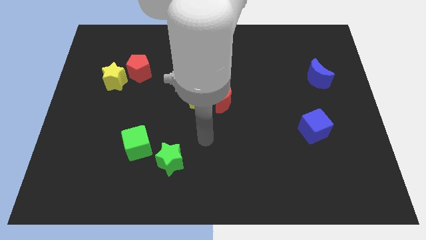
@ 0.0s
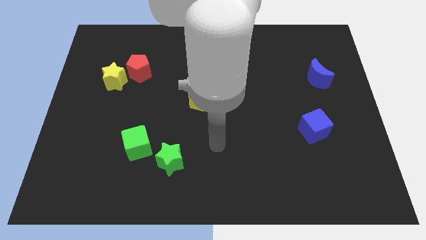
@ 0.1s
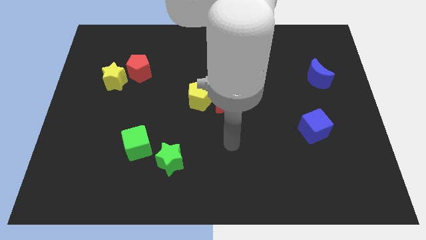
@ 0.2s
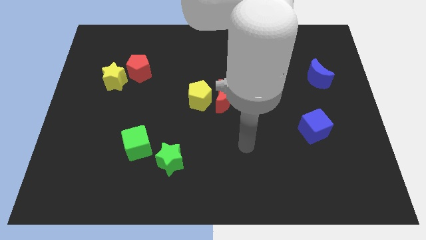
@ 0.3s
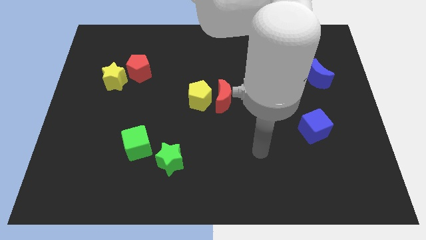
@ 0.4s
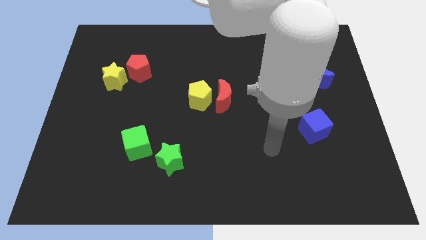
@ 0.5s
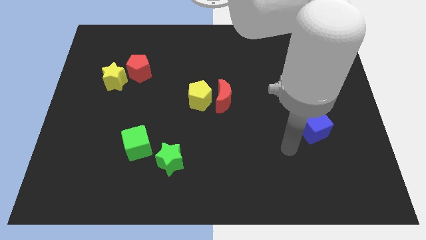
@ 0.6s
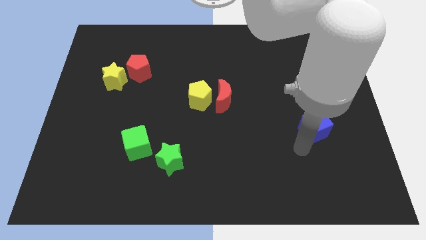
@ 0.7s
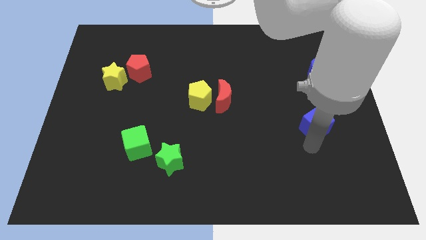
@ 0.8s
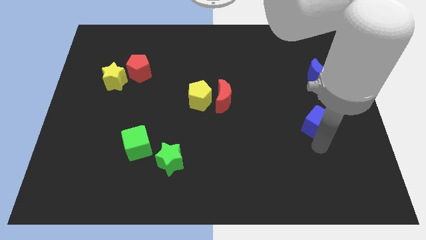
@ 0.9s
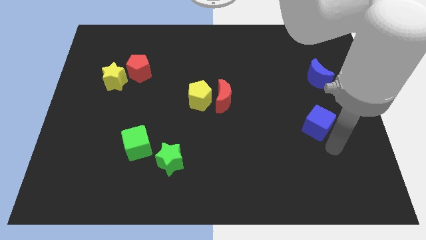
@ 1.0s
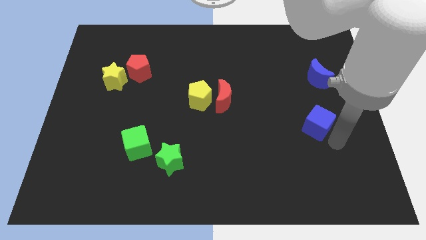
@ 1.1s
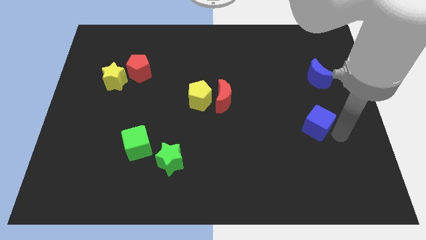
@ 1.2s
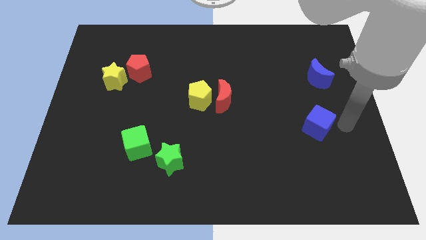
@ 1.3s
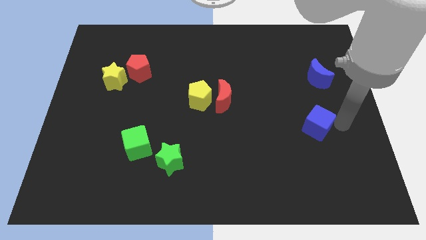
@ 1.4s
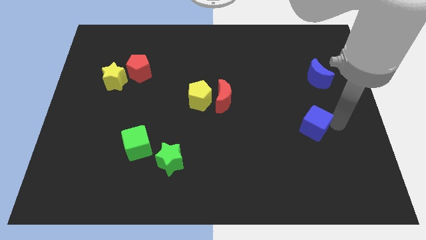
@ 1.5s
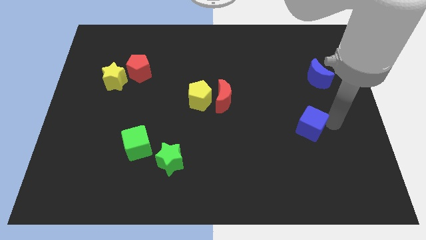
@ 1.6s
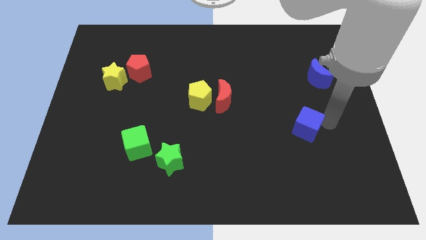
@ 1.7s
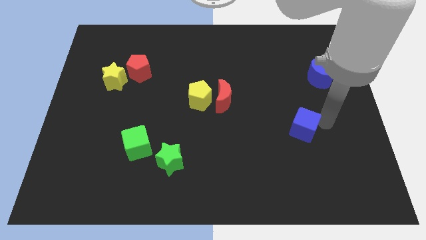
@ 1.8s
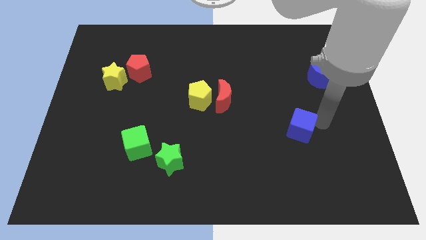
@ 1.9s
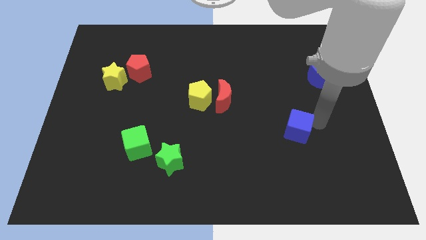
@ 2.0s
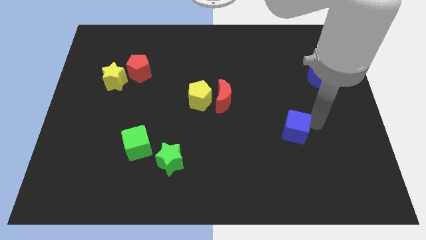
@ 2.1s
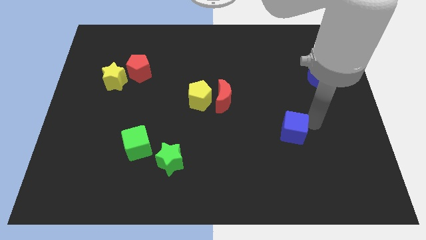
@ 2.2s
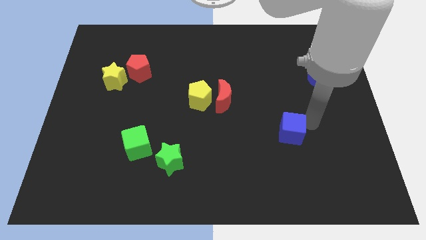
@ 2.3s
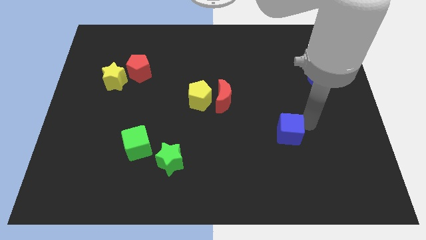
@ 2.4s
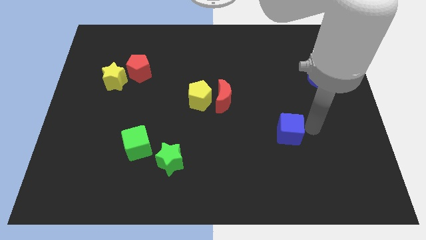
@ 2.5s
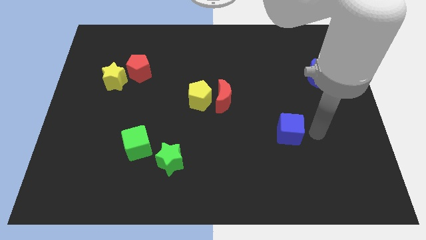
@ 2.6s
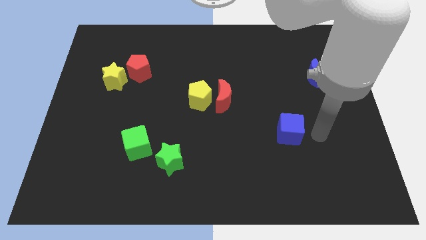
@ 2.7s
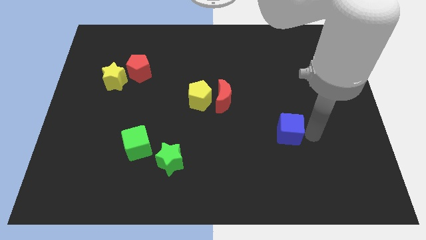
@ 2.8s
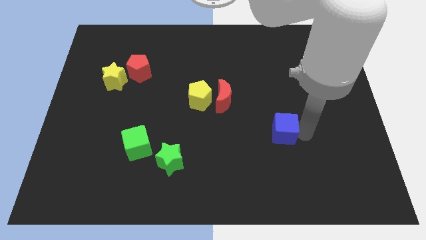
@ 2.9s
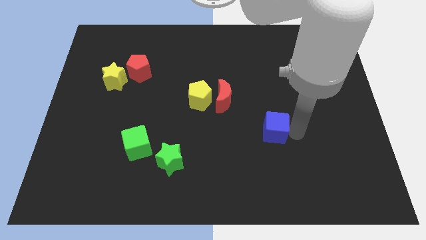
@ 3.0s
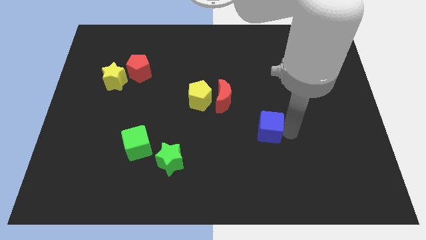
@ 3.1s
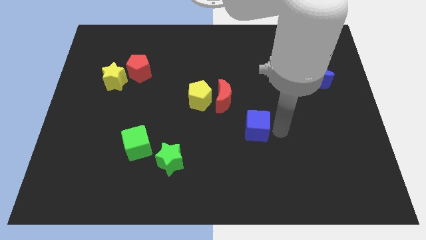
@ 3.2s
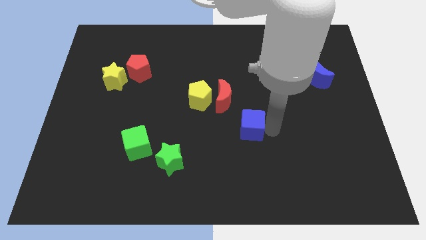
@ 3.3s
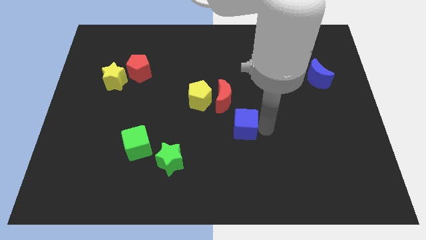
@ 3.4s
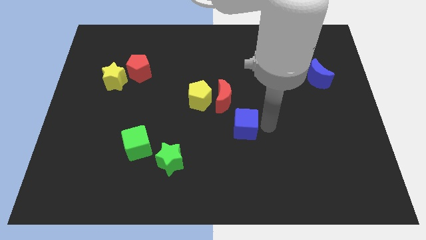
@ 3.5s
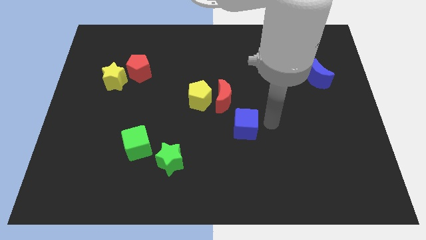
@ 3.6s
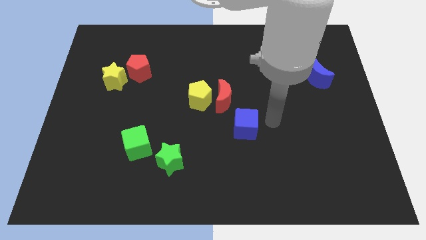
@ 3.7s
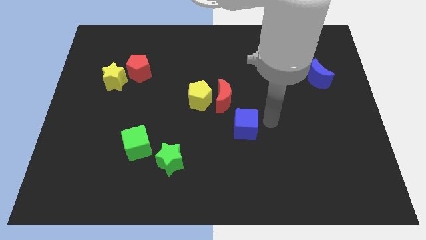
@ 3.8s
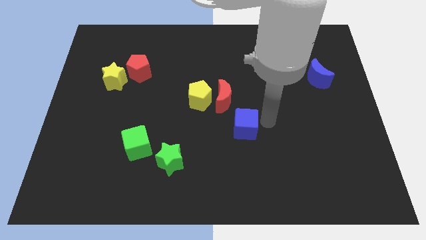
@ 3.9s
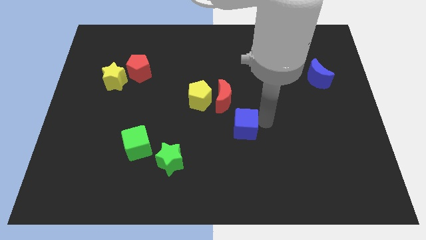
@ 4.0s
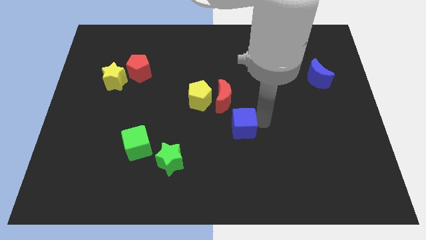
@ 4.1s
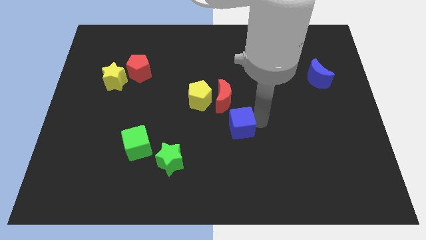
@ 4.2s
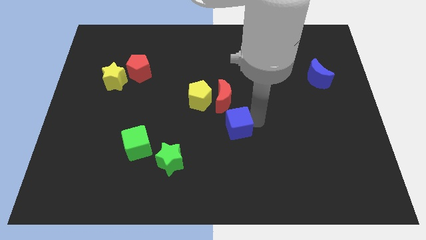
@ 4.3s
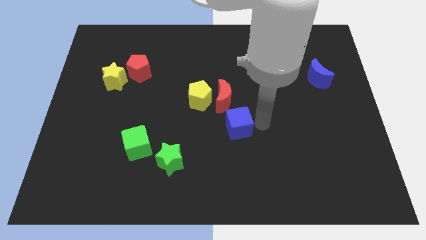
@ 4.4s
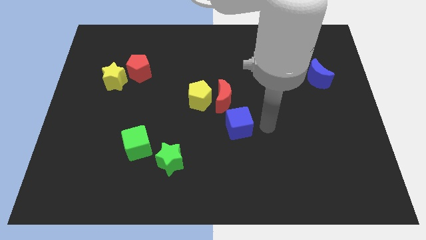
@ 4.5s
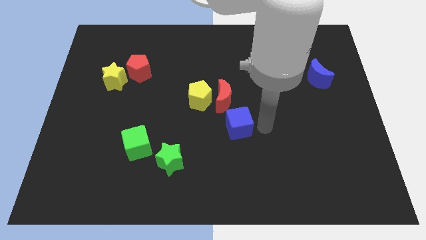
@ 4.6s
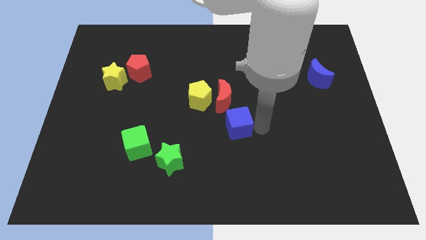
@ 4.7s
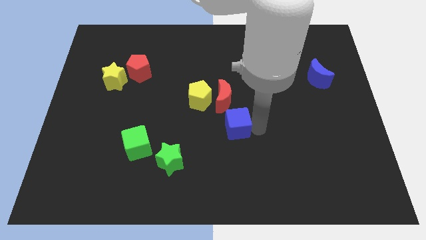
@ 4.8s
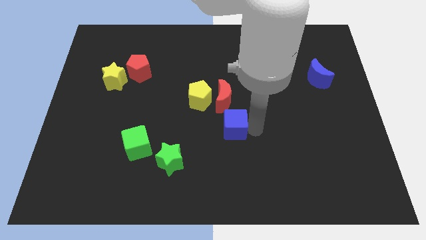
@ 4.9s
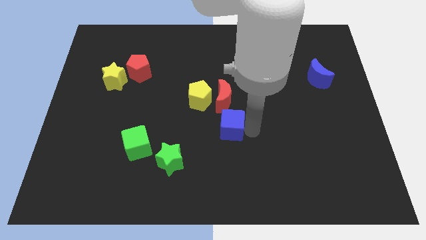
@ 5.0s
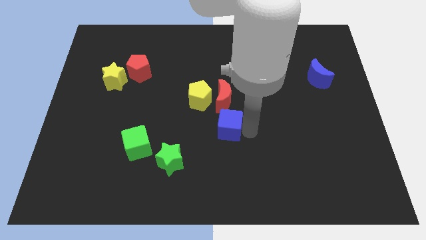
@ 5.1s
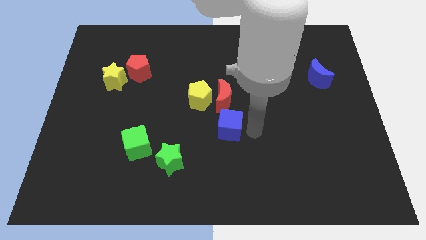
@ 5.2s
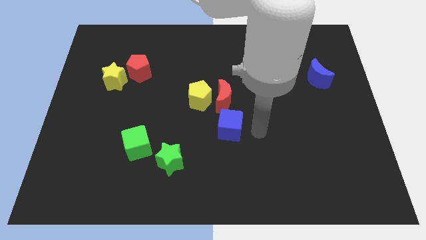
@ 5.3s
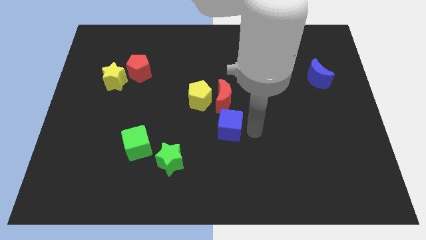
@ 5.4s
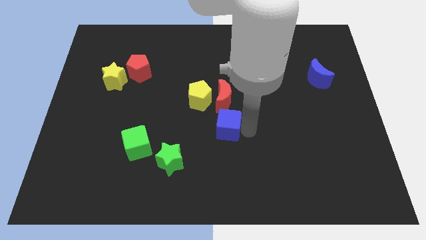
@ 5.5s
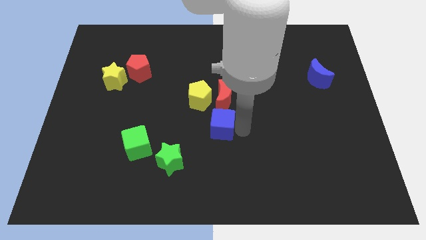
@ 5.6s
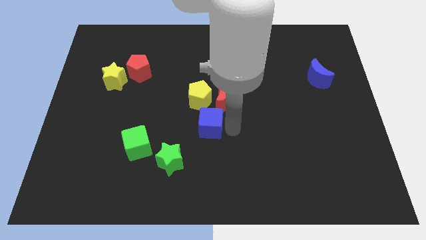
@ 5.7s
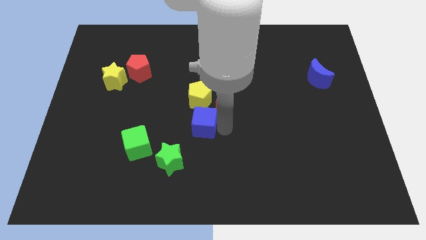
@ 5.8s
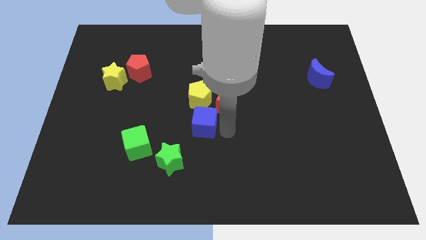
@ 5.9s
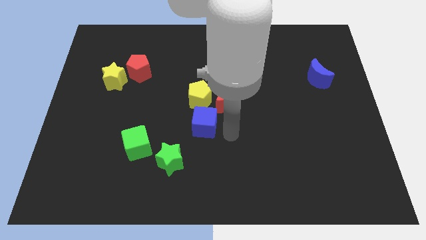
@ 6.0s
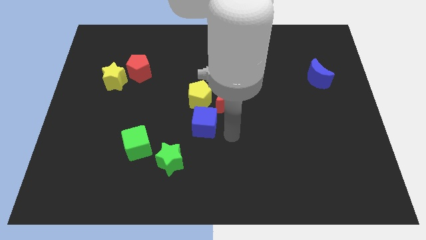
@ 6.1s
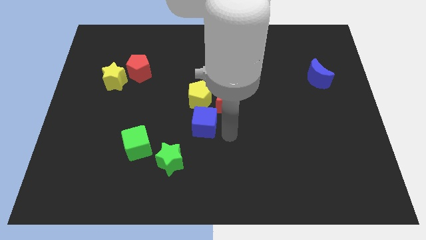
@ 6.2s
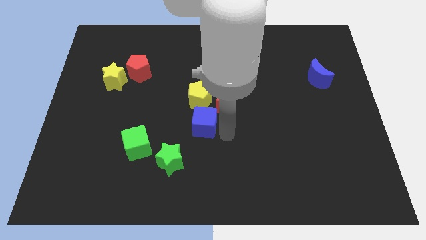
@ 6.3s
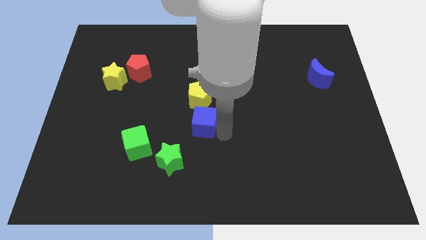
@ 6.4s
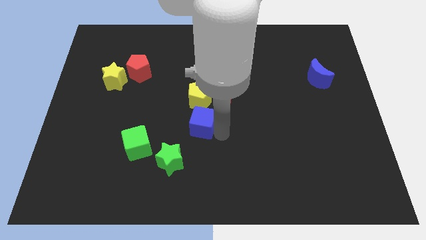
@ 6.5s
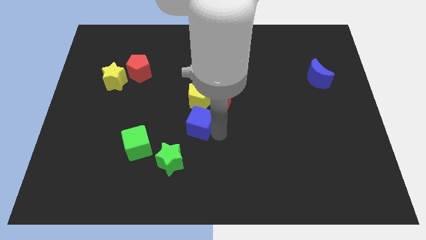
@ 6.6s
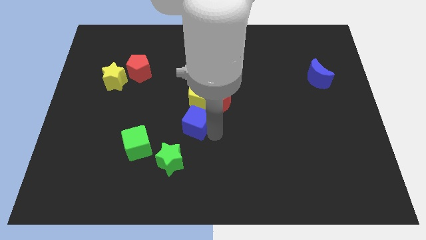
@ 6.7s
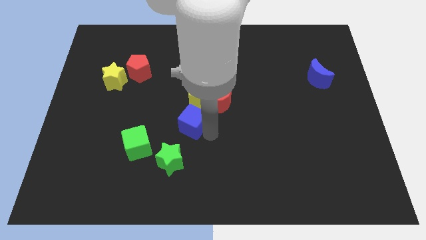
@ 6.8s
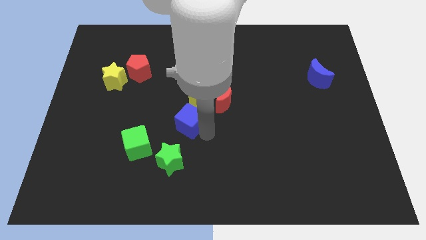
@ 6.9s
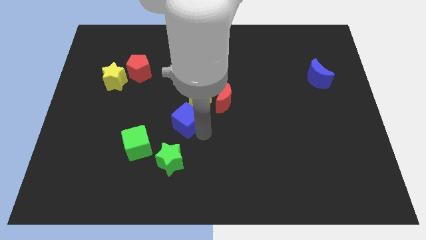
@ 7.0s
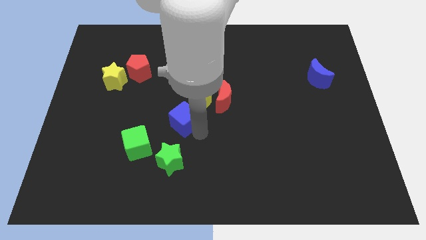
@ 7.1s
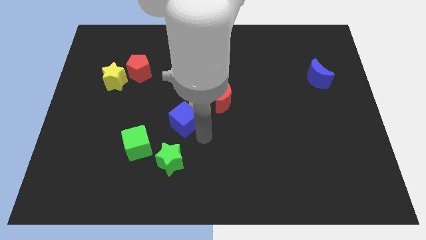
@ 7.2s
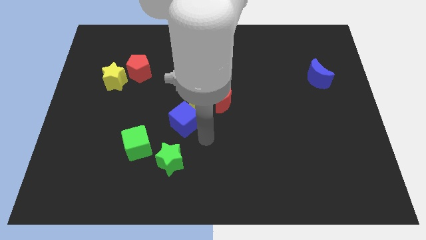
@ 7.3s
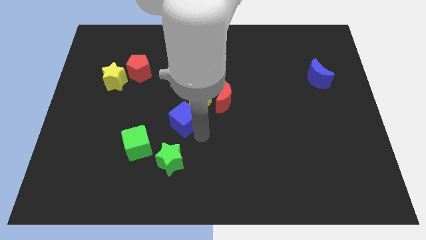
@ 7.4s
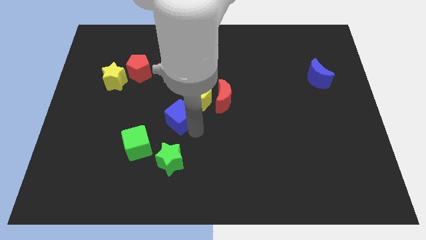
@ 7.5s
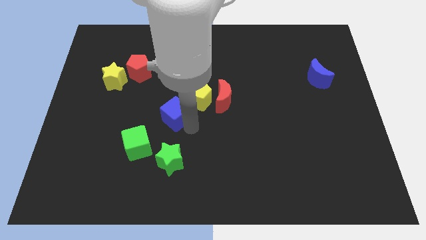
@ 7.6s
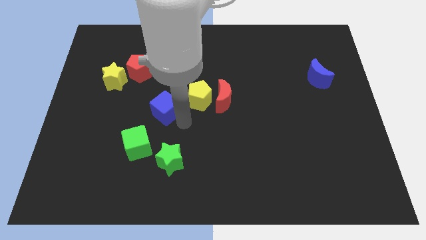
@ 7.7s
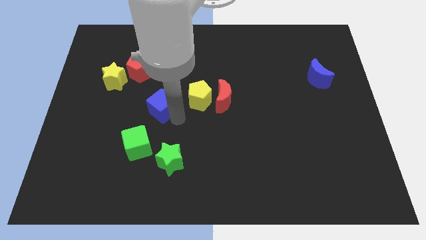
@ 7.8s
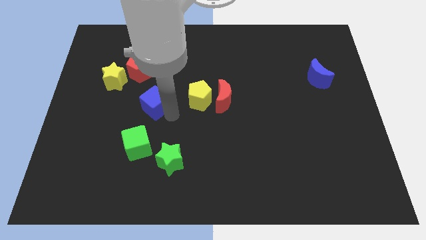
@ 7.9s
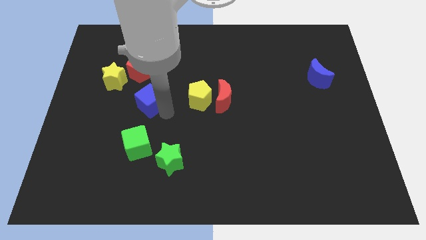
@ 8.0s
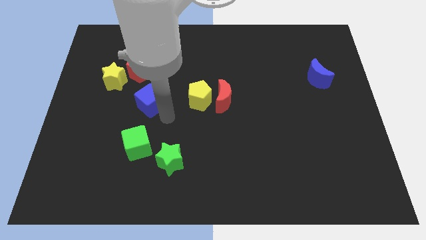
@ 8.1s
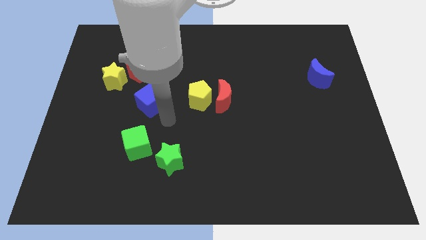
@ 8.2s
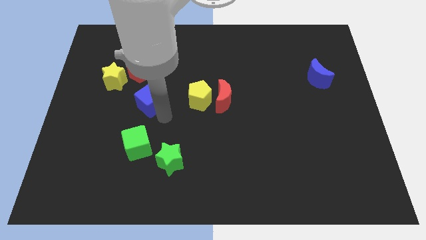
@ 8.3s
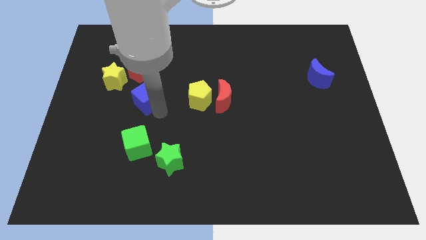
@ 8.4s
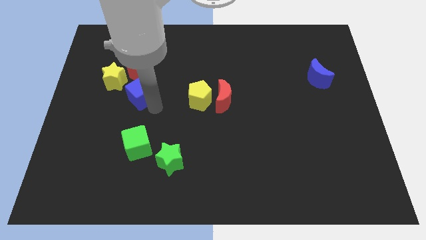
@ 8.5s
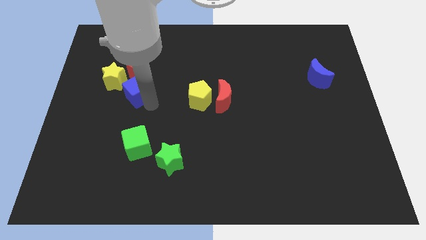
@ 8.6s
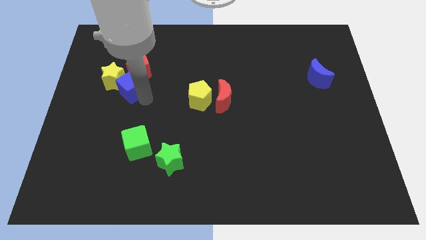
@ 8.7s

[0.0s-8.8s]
push the blue cube towards the yellow star
